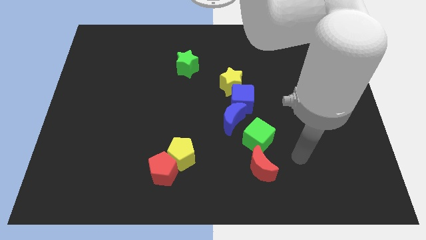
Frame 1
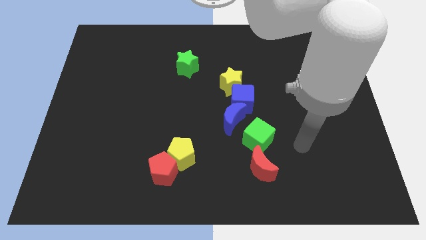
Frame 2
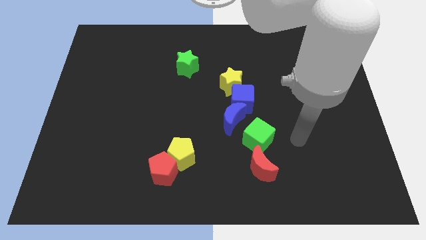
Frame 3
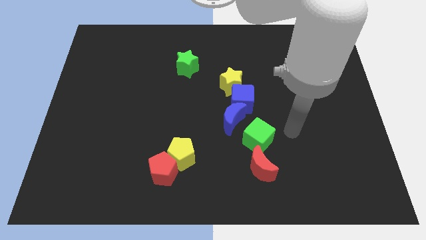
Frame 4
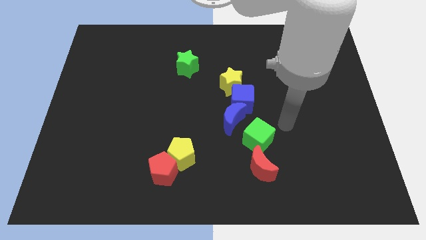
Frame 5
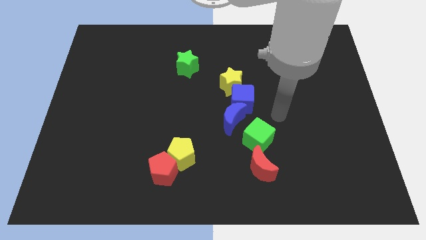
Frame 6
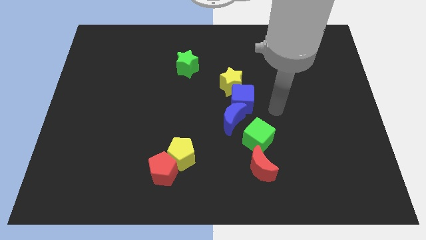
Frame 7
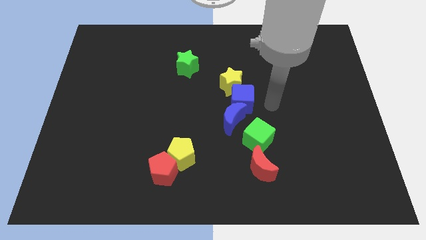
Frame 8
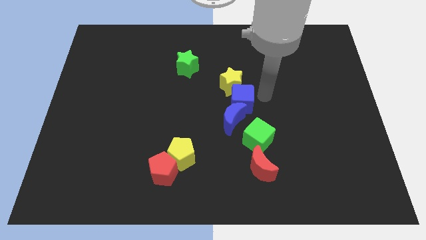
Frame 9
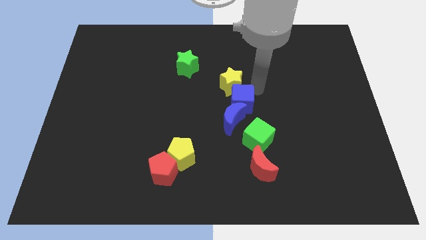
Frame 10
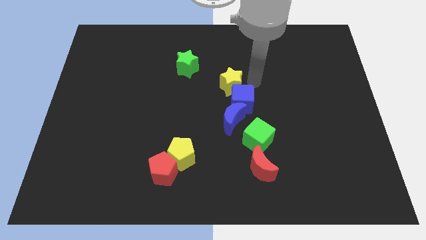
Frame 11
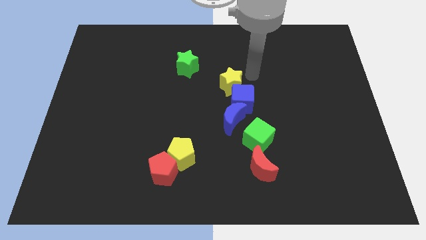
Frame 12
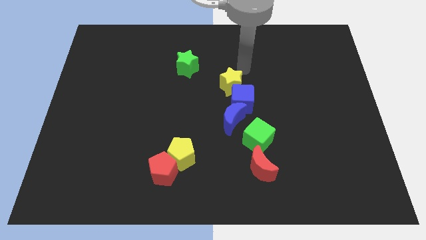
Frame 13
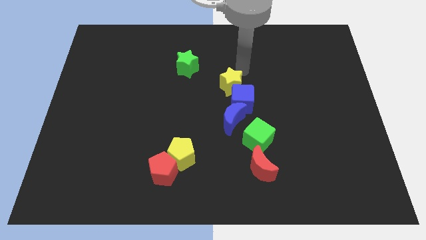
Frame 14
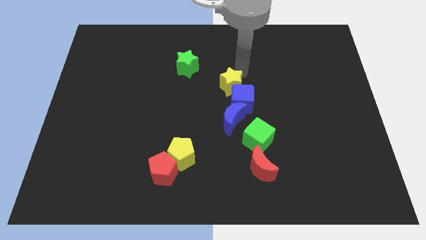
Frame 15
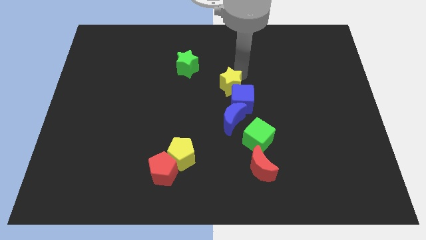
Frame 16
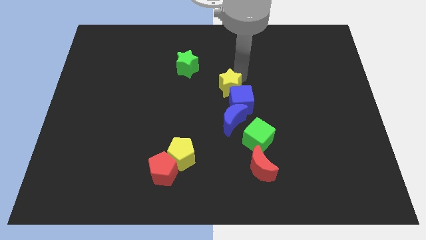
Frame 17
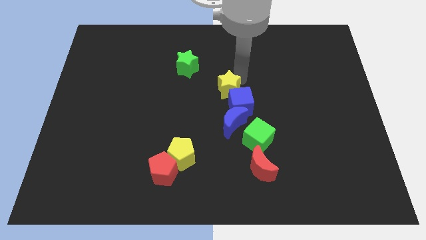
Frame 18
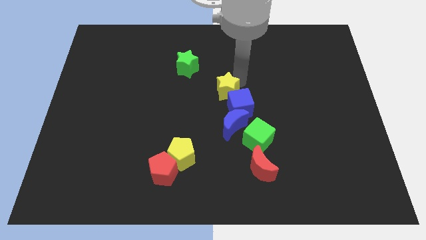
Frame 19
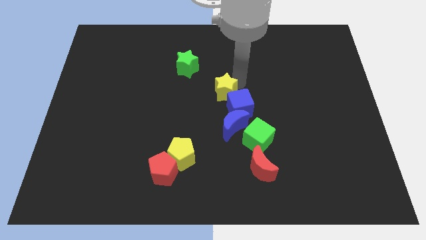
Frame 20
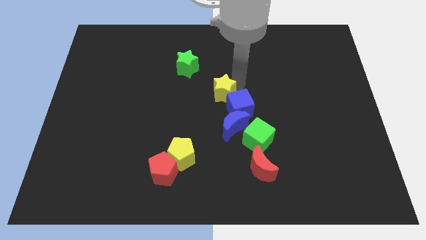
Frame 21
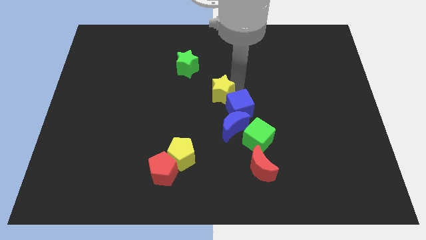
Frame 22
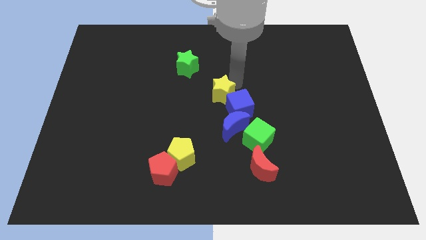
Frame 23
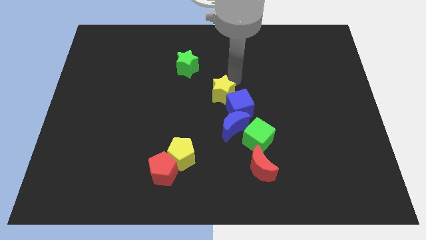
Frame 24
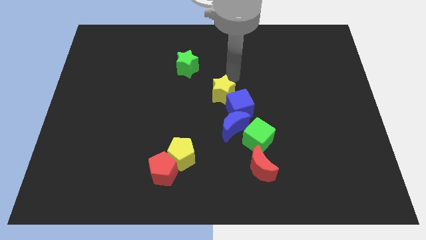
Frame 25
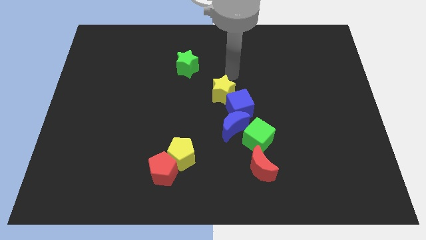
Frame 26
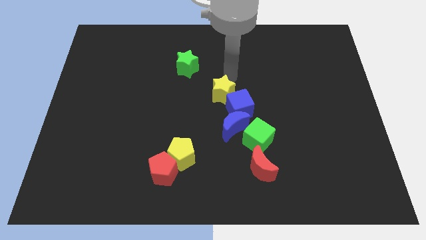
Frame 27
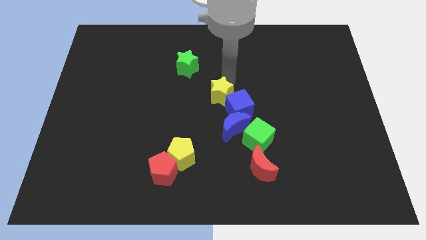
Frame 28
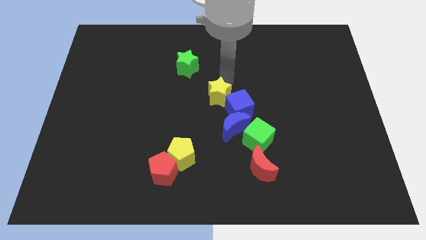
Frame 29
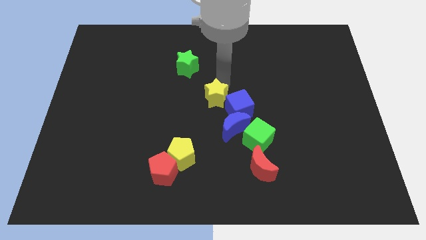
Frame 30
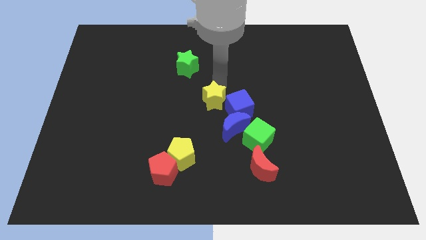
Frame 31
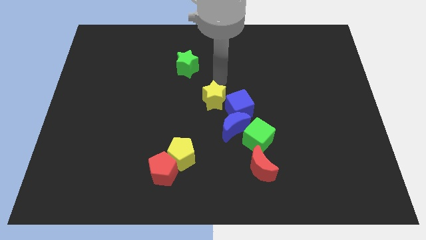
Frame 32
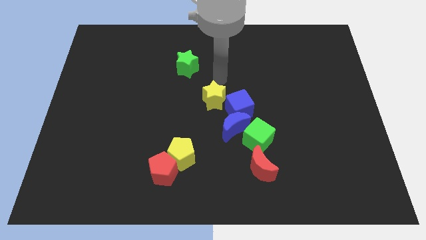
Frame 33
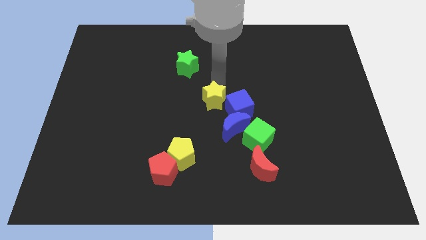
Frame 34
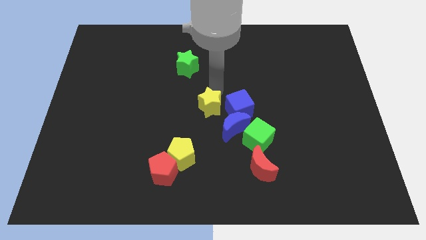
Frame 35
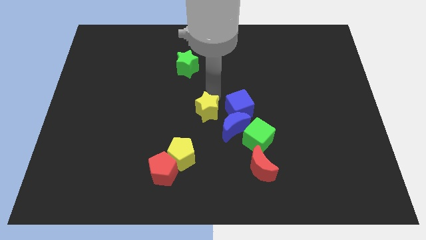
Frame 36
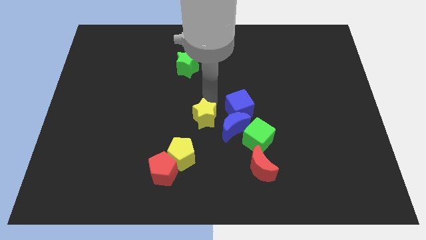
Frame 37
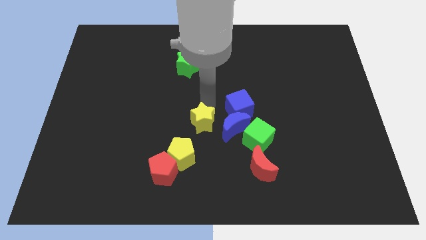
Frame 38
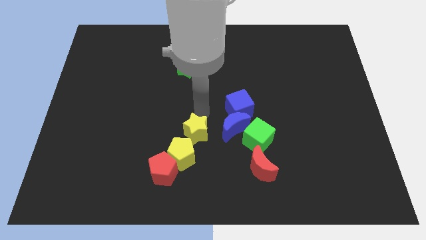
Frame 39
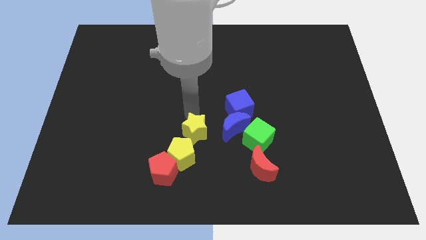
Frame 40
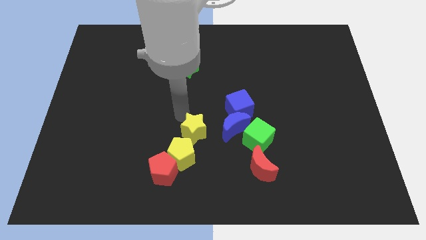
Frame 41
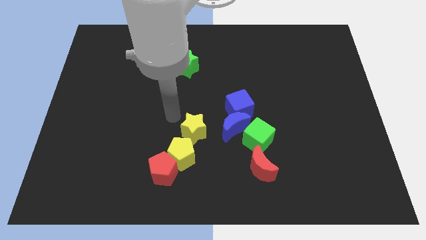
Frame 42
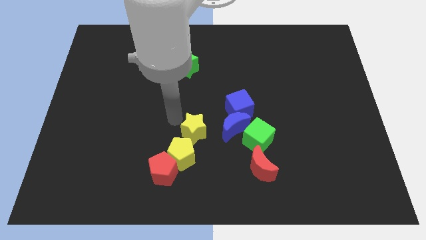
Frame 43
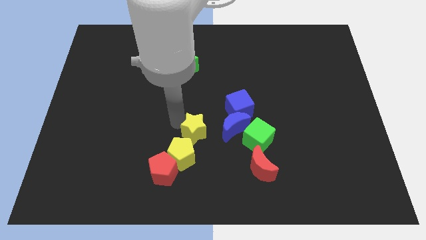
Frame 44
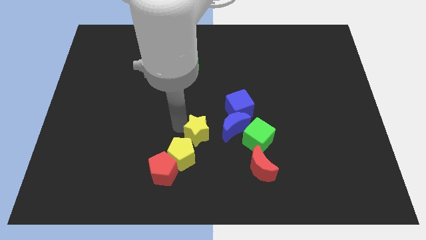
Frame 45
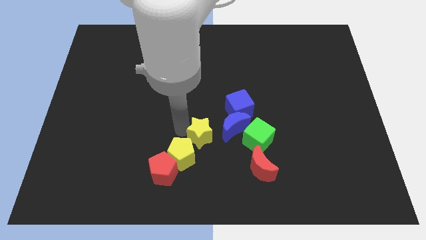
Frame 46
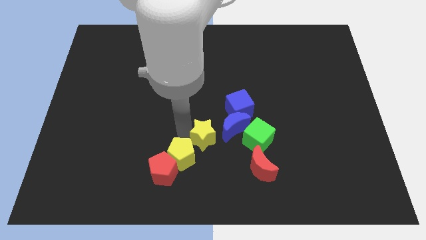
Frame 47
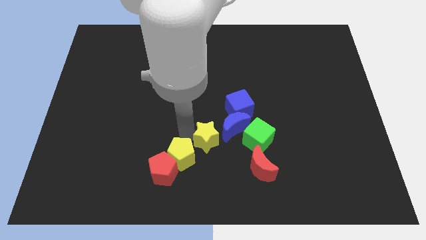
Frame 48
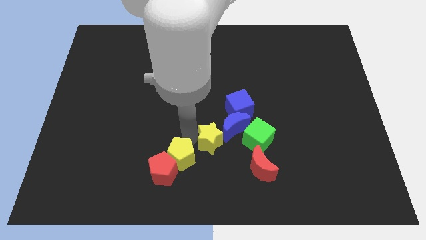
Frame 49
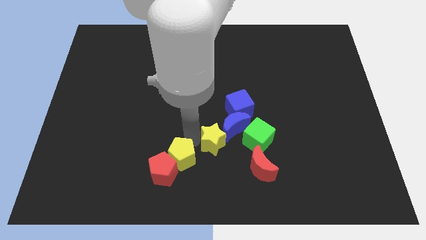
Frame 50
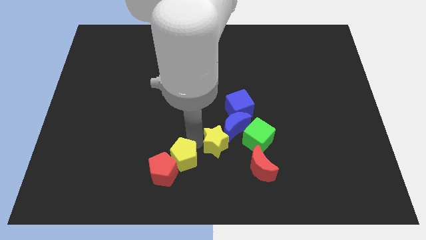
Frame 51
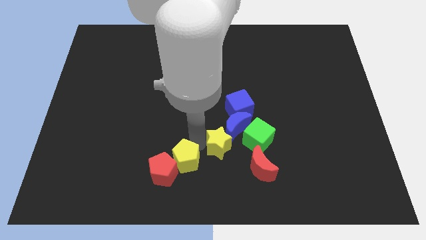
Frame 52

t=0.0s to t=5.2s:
move the yellow star to the bottom left side of the green cube

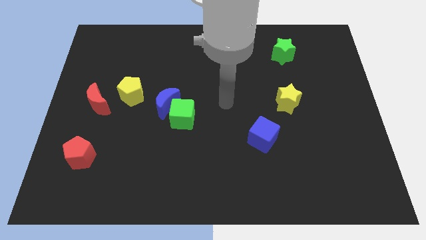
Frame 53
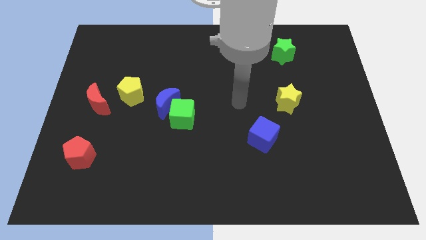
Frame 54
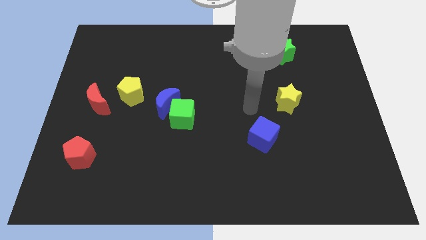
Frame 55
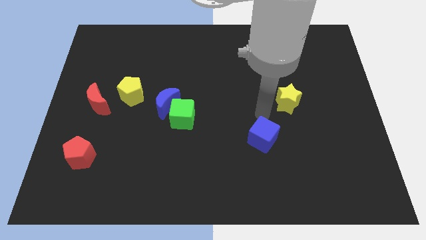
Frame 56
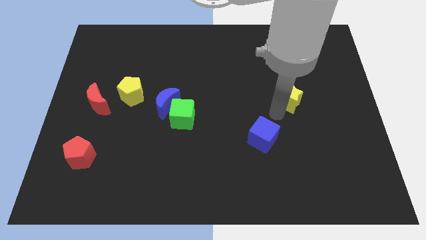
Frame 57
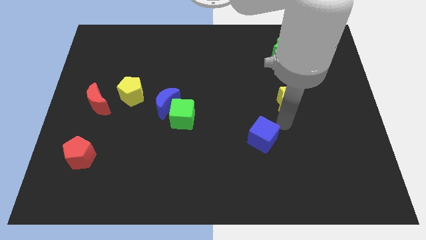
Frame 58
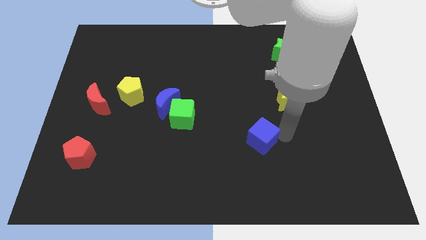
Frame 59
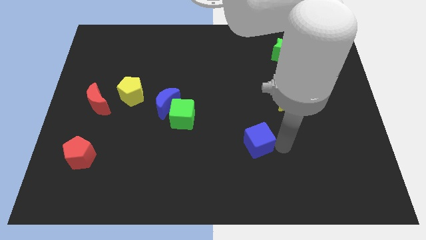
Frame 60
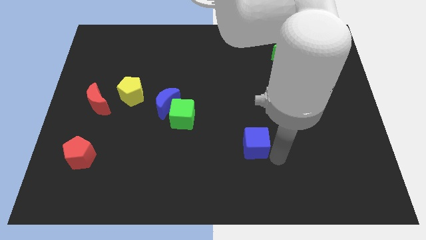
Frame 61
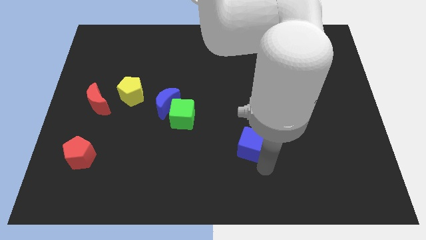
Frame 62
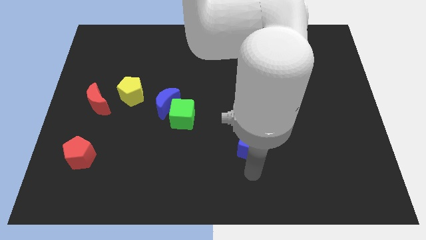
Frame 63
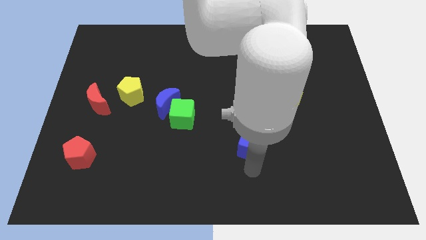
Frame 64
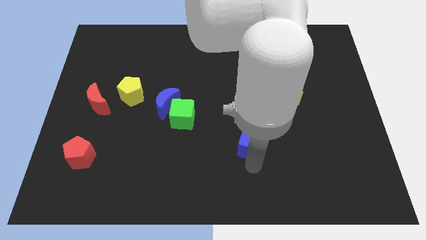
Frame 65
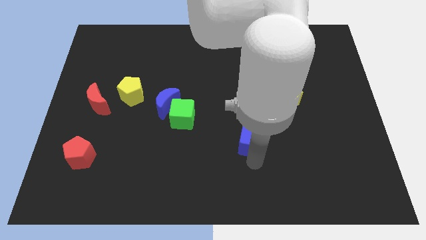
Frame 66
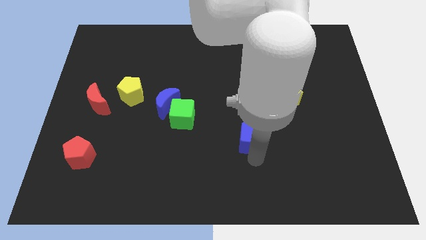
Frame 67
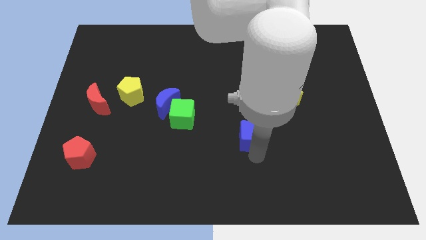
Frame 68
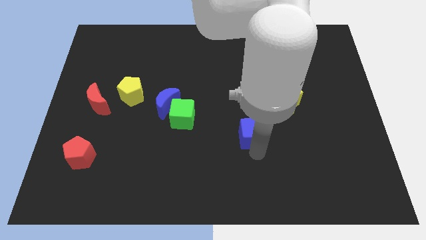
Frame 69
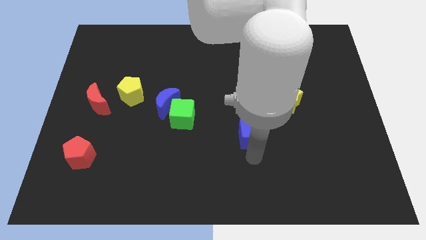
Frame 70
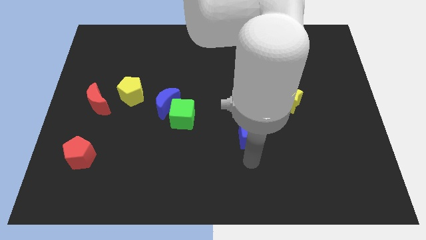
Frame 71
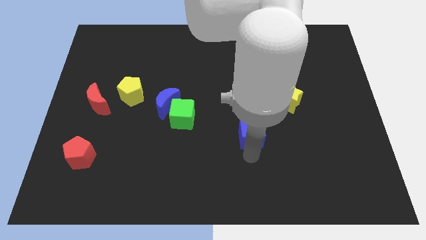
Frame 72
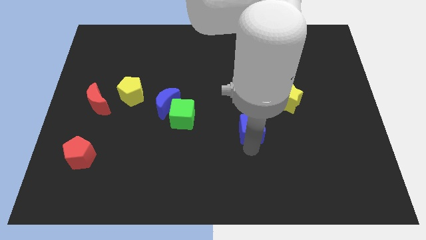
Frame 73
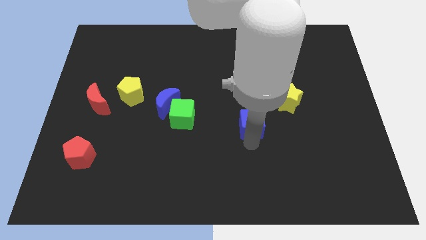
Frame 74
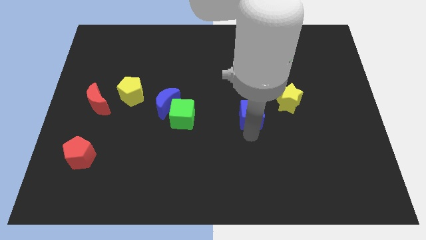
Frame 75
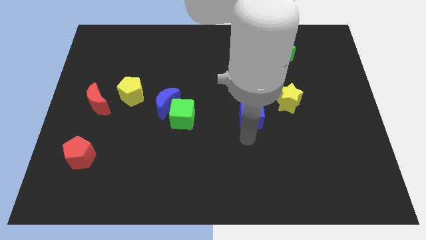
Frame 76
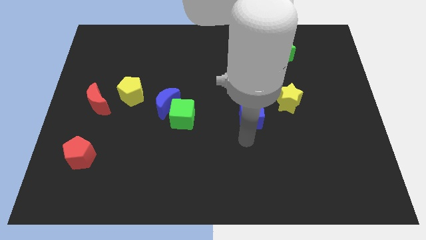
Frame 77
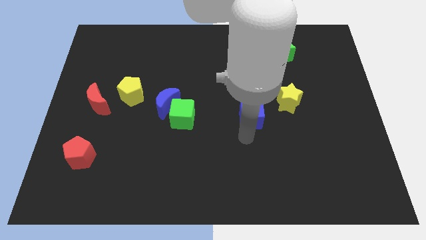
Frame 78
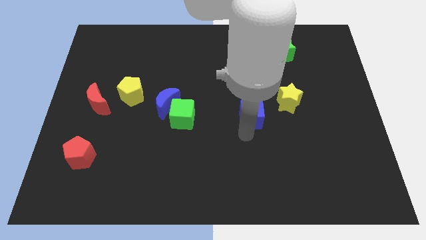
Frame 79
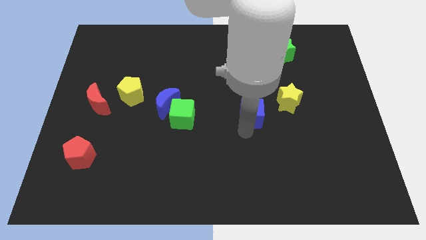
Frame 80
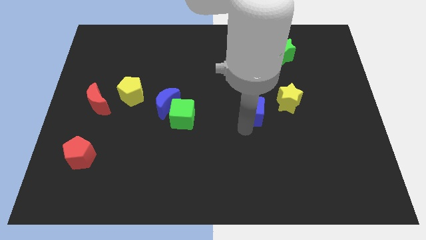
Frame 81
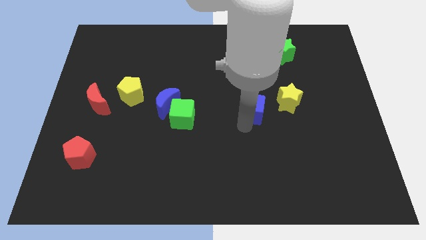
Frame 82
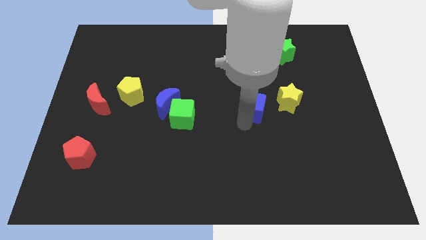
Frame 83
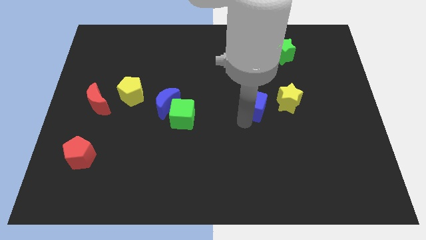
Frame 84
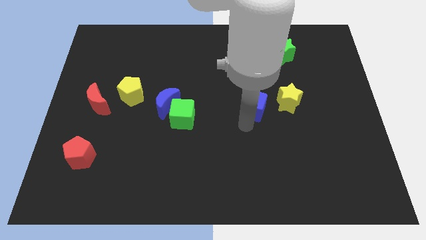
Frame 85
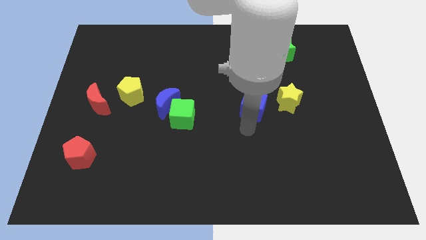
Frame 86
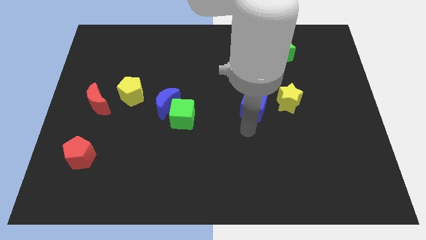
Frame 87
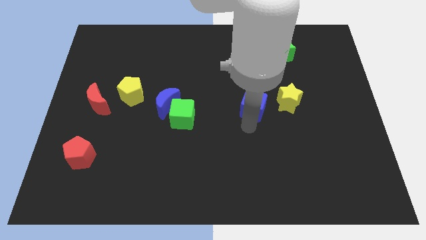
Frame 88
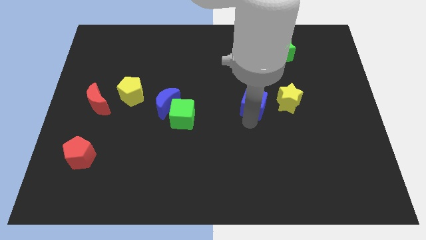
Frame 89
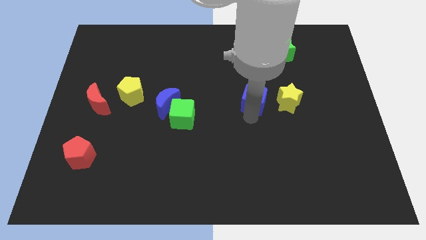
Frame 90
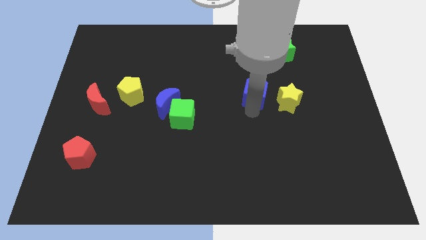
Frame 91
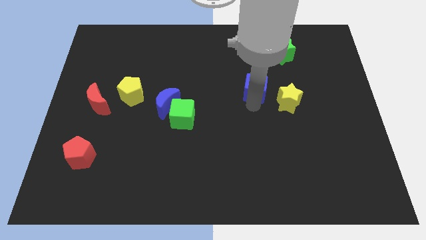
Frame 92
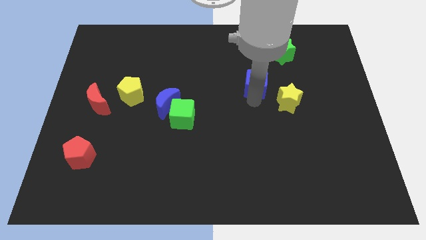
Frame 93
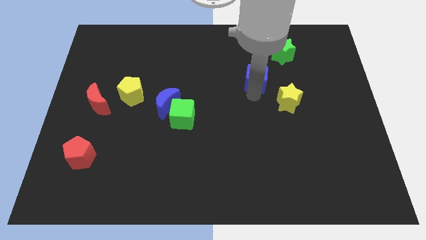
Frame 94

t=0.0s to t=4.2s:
put the blue cube diagonally down and to the left of the green star
